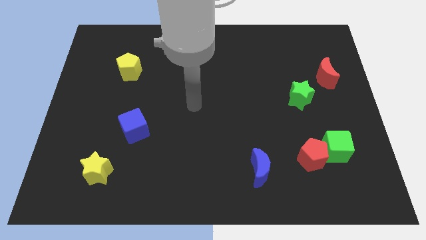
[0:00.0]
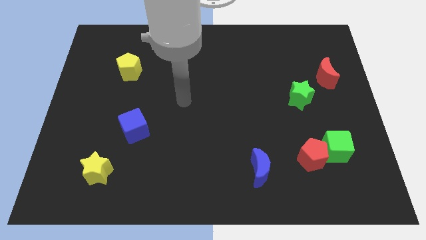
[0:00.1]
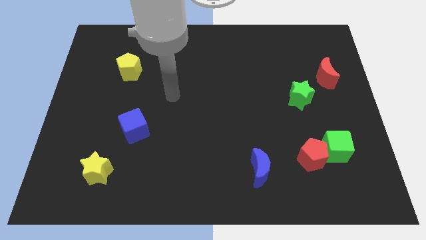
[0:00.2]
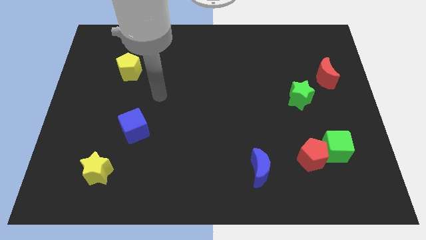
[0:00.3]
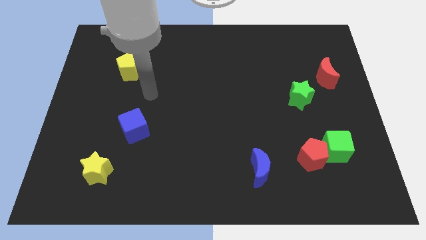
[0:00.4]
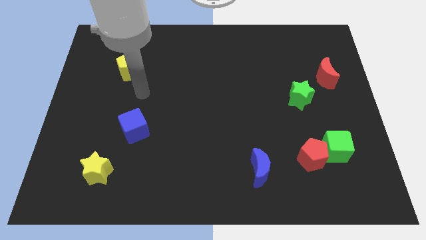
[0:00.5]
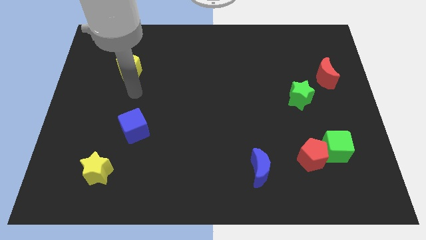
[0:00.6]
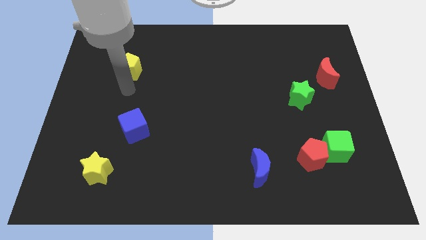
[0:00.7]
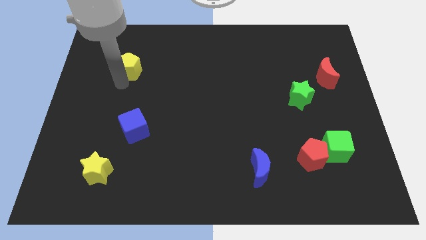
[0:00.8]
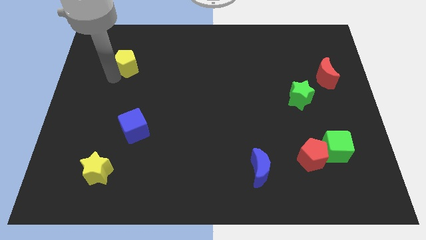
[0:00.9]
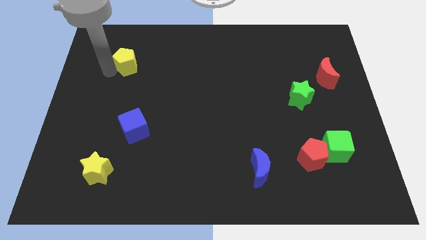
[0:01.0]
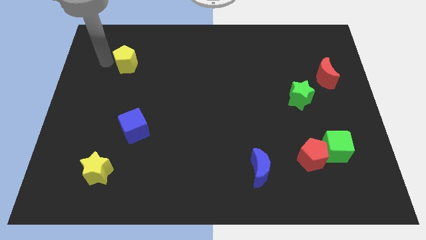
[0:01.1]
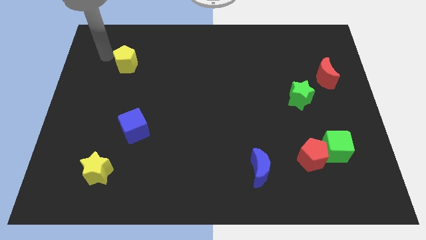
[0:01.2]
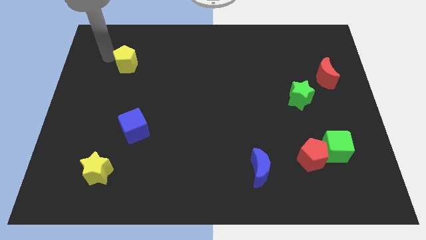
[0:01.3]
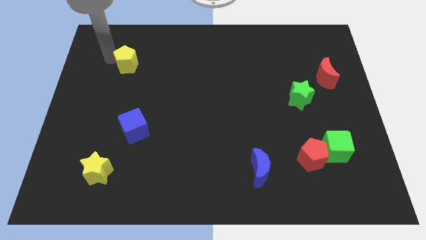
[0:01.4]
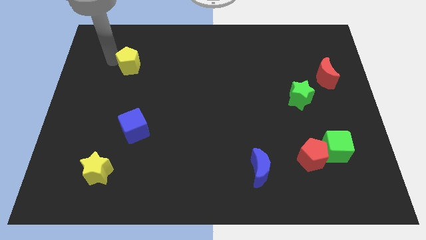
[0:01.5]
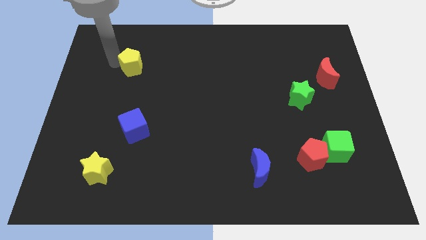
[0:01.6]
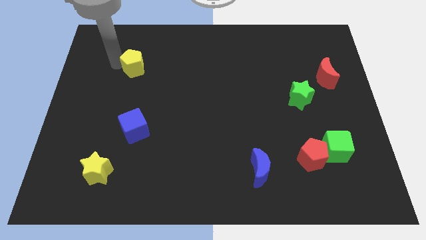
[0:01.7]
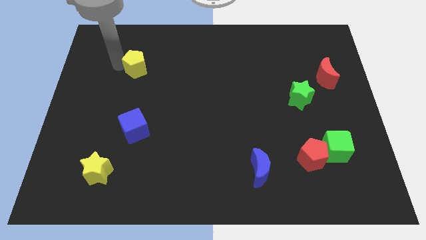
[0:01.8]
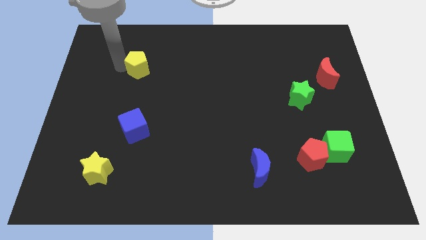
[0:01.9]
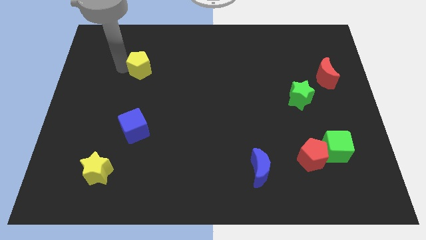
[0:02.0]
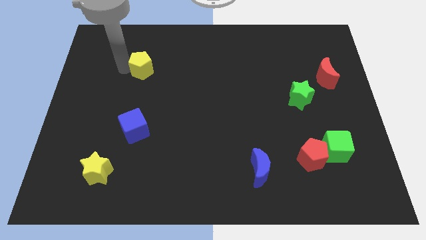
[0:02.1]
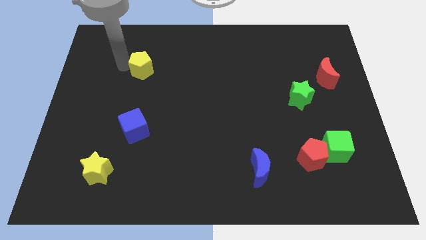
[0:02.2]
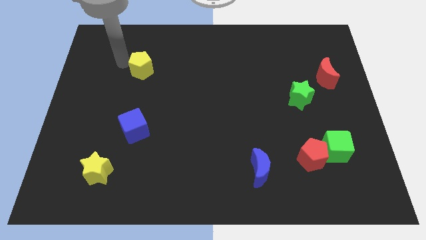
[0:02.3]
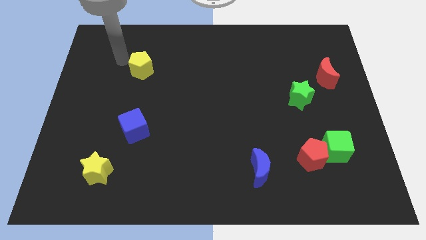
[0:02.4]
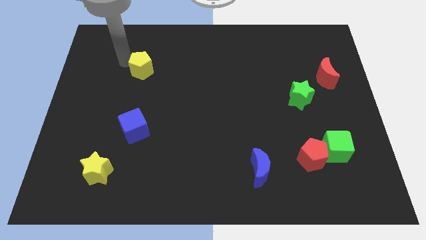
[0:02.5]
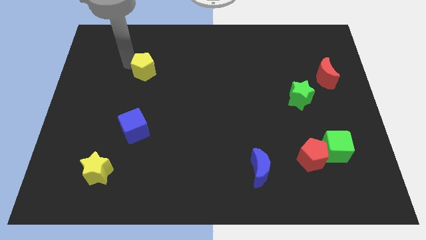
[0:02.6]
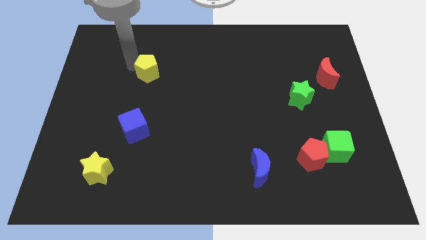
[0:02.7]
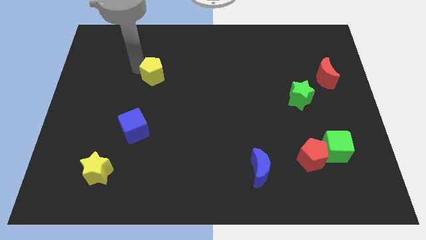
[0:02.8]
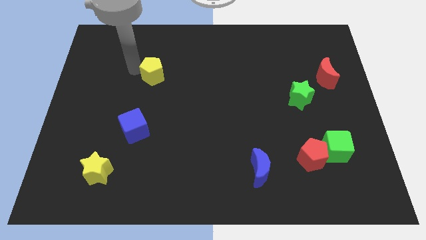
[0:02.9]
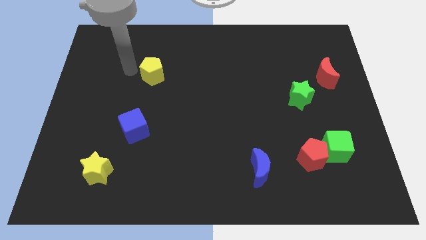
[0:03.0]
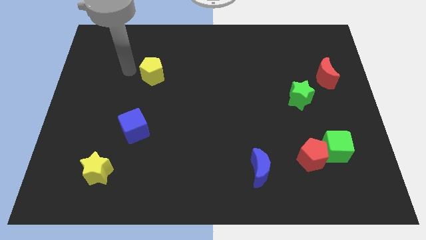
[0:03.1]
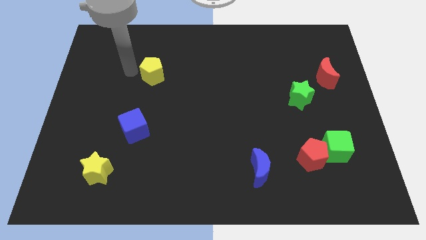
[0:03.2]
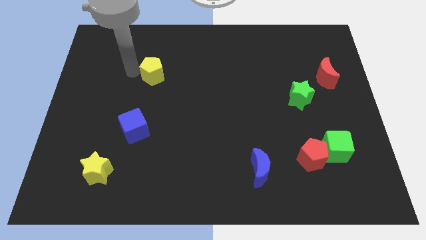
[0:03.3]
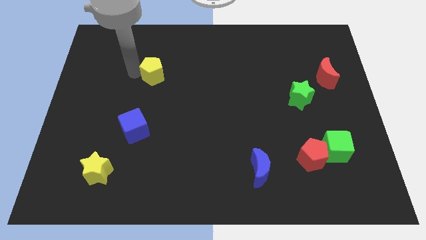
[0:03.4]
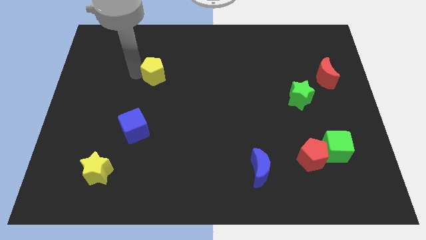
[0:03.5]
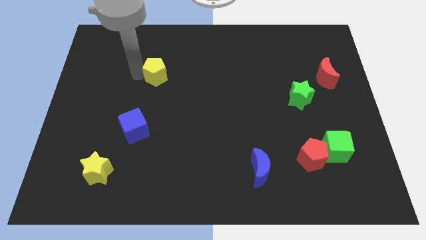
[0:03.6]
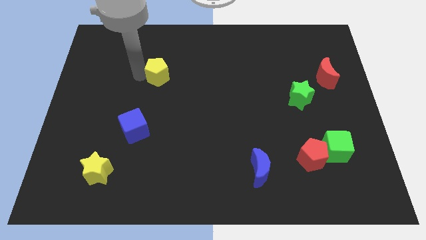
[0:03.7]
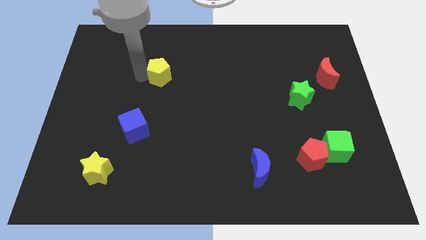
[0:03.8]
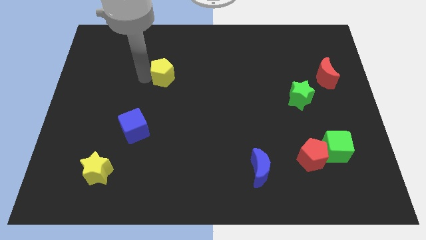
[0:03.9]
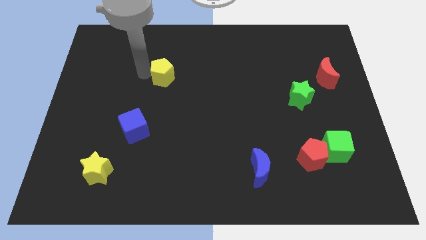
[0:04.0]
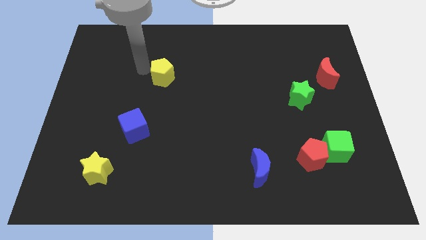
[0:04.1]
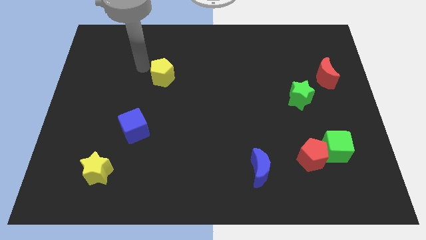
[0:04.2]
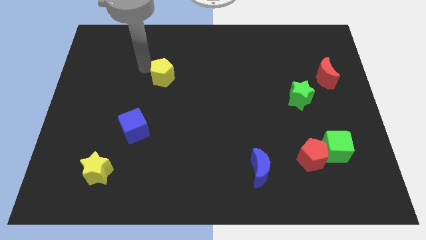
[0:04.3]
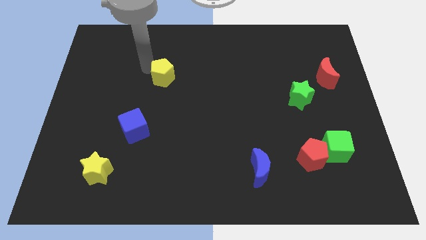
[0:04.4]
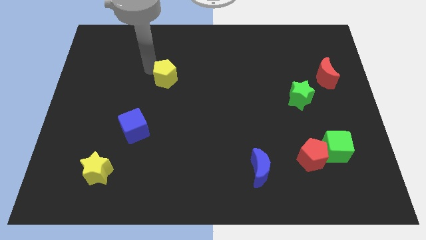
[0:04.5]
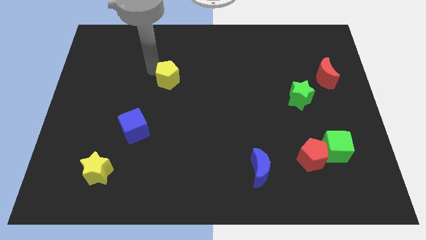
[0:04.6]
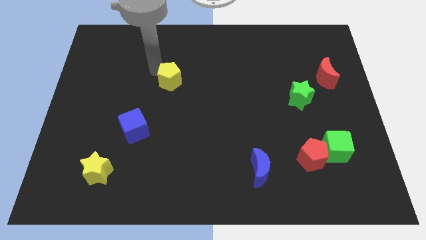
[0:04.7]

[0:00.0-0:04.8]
put the yellow pentagon to the center of the board
